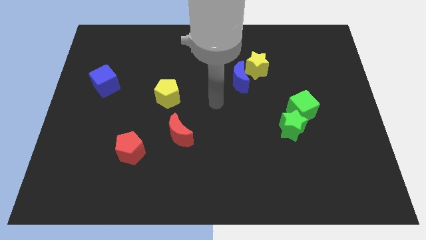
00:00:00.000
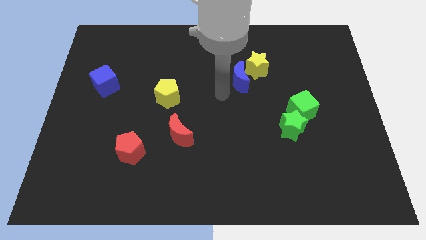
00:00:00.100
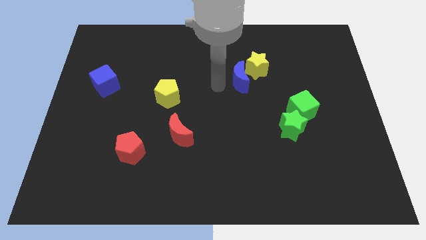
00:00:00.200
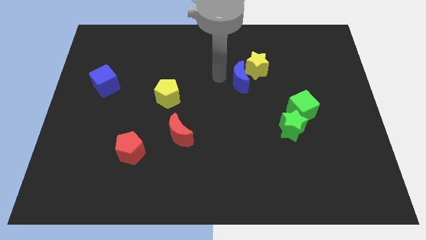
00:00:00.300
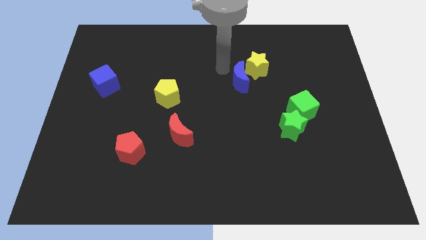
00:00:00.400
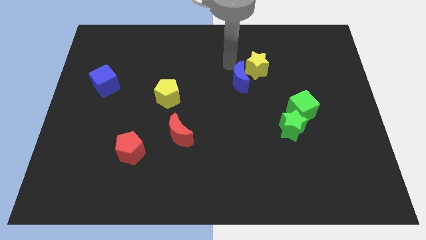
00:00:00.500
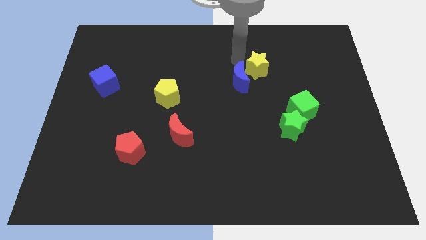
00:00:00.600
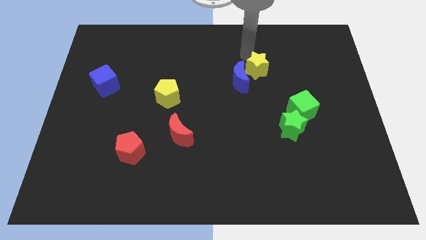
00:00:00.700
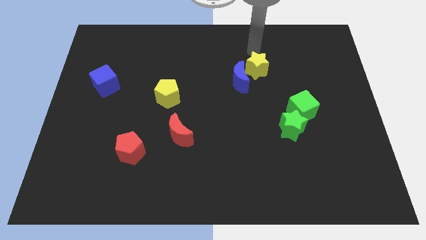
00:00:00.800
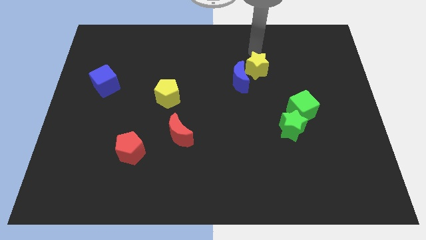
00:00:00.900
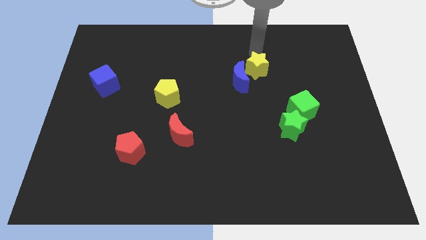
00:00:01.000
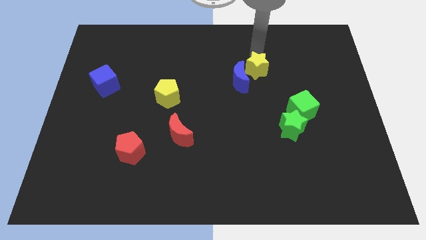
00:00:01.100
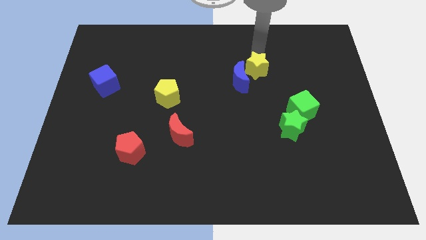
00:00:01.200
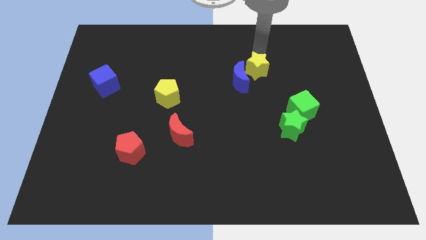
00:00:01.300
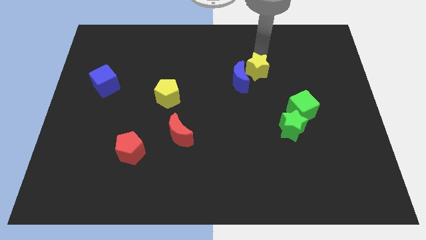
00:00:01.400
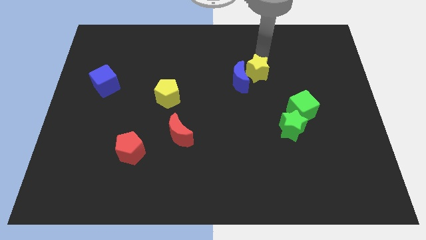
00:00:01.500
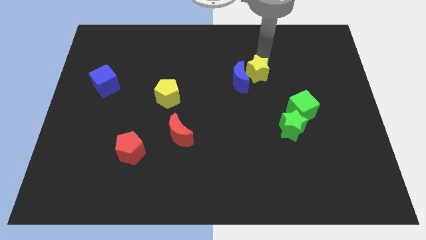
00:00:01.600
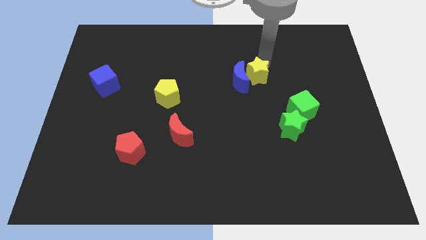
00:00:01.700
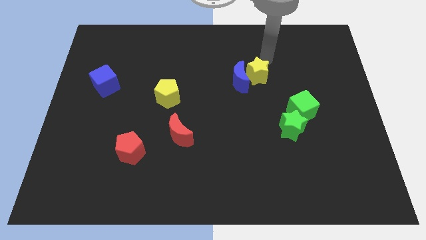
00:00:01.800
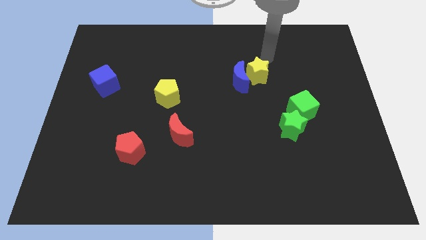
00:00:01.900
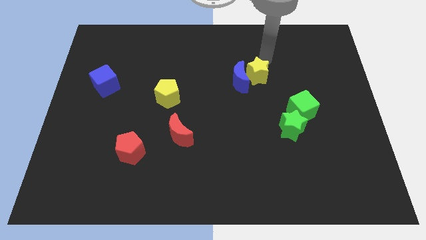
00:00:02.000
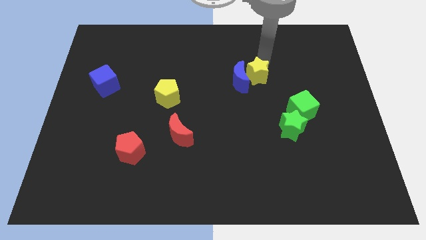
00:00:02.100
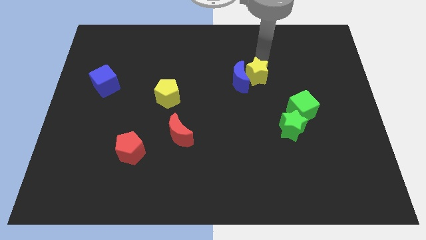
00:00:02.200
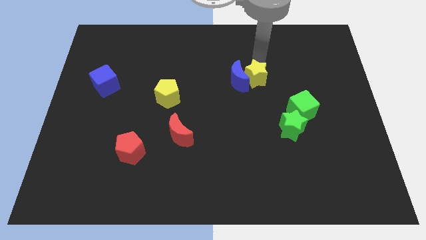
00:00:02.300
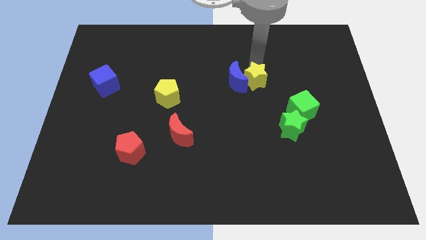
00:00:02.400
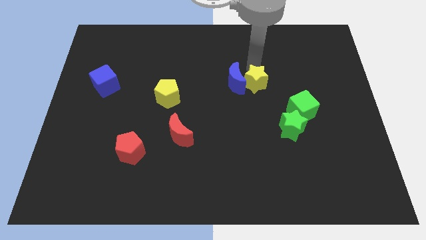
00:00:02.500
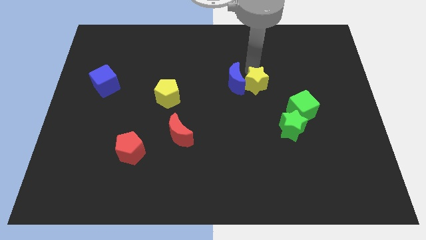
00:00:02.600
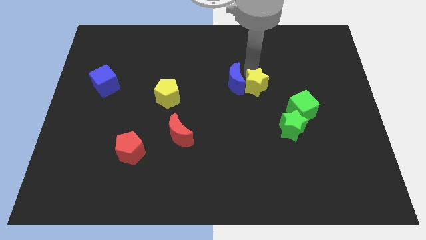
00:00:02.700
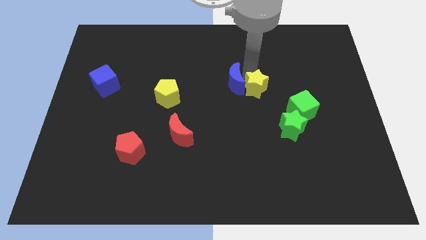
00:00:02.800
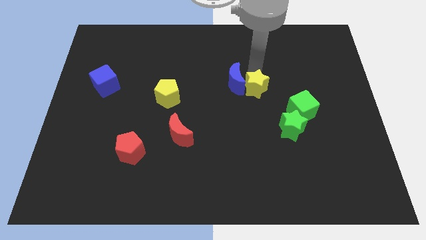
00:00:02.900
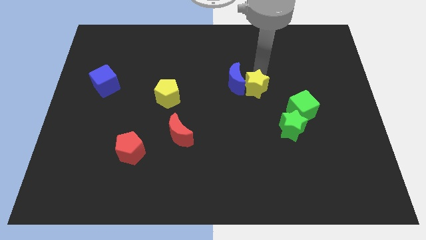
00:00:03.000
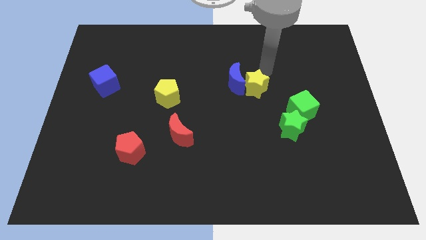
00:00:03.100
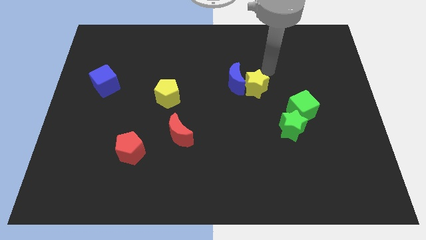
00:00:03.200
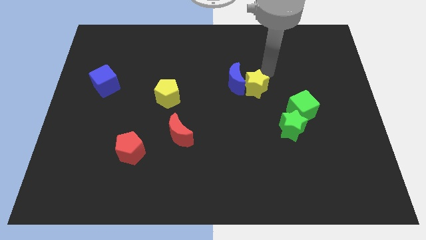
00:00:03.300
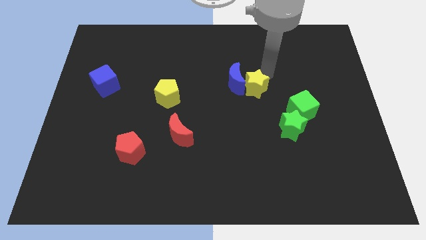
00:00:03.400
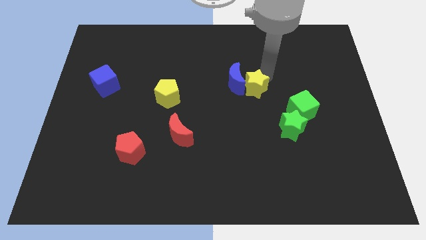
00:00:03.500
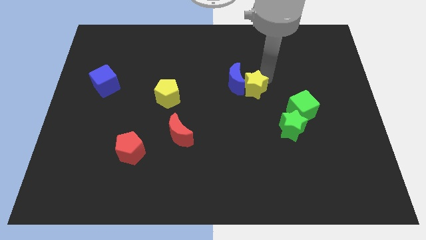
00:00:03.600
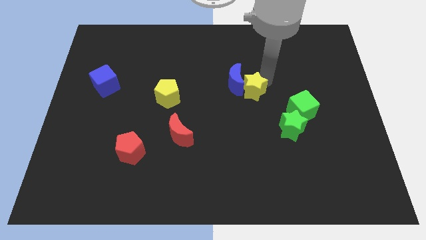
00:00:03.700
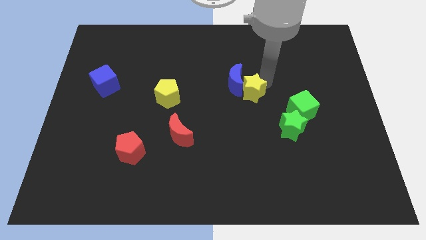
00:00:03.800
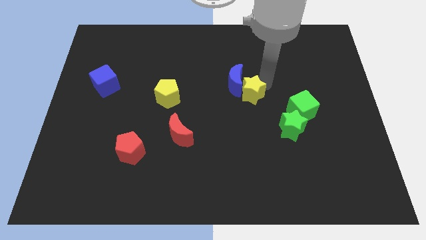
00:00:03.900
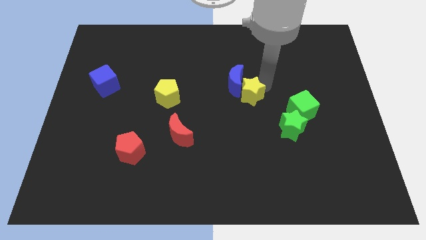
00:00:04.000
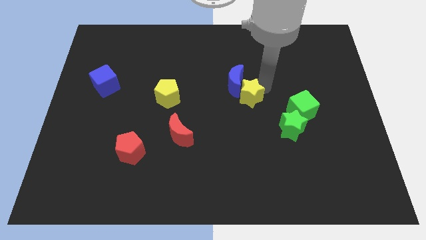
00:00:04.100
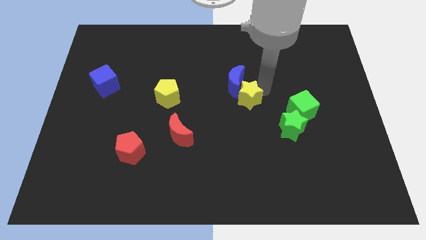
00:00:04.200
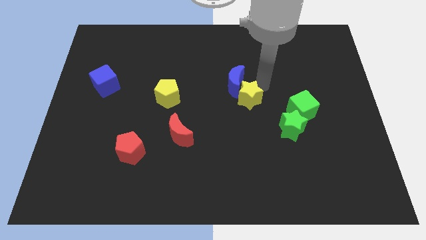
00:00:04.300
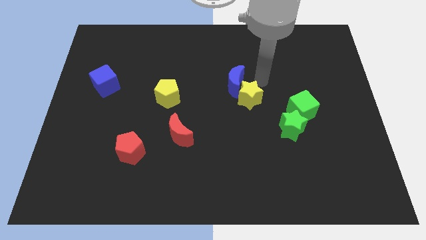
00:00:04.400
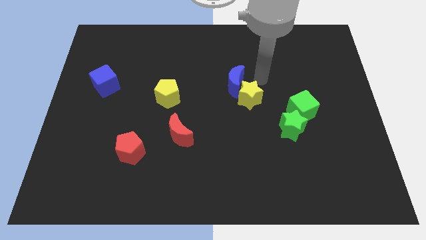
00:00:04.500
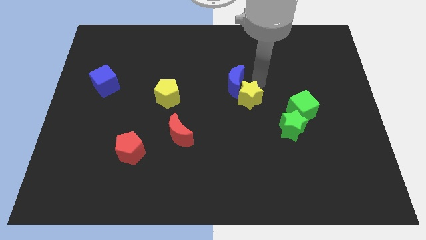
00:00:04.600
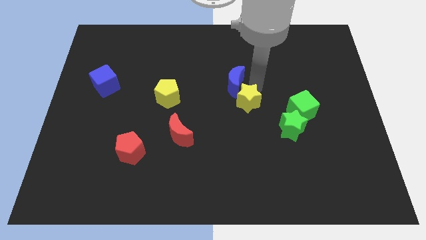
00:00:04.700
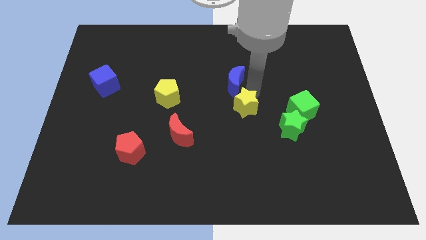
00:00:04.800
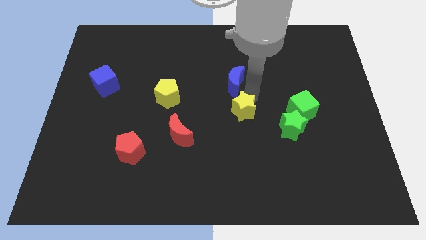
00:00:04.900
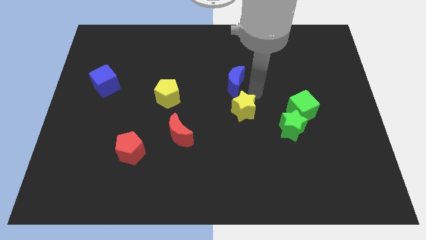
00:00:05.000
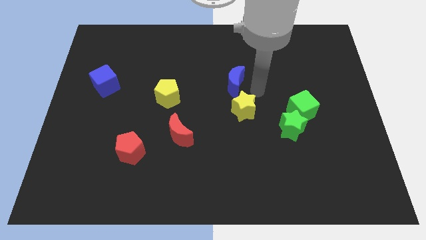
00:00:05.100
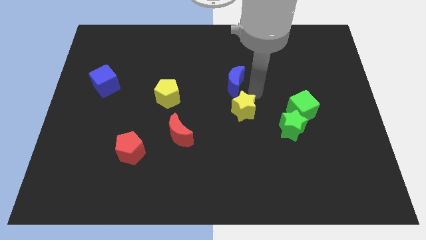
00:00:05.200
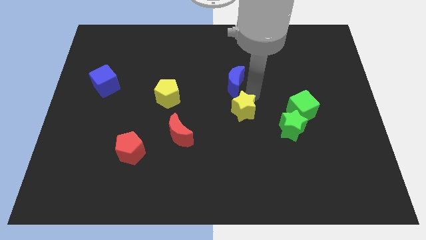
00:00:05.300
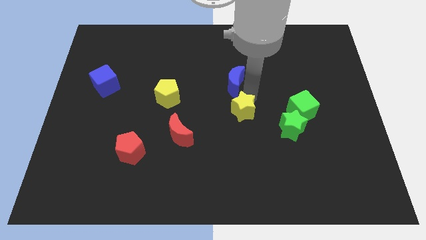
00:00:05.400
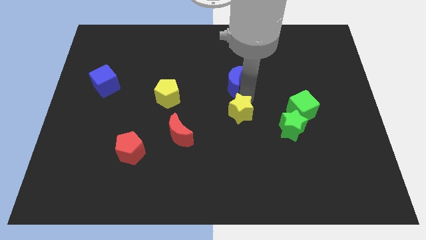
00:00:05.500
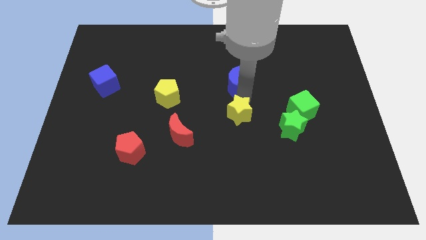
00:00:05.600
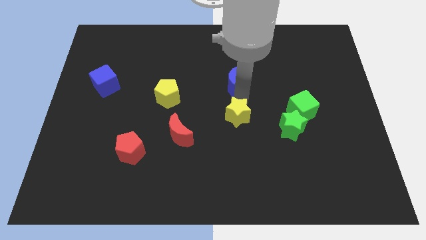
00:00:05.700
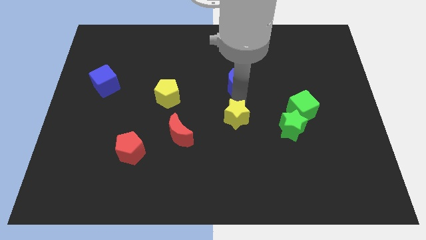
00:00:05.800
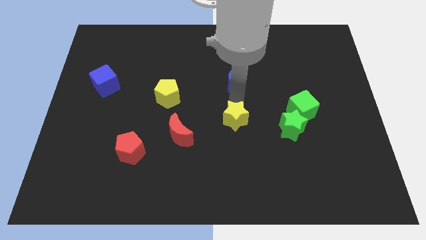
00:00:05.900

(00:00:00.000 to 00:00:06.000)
put the yellow star right of the red moon

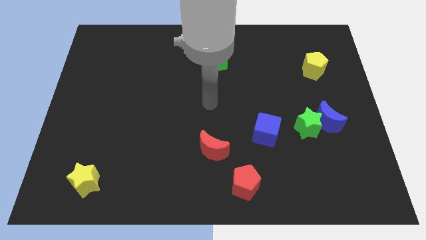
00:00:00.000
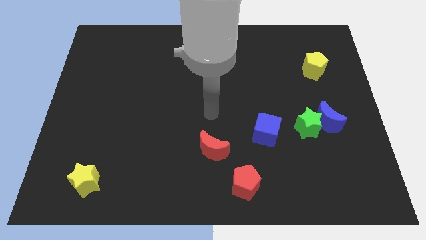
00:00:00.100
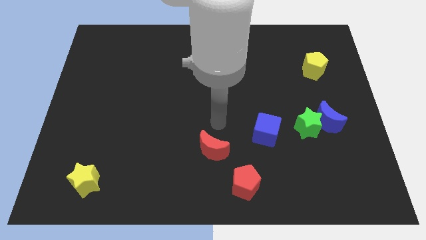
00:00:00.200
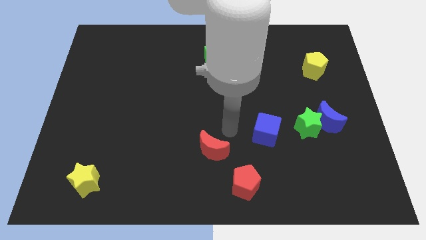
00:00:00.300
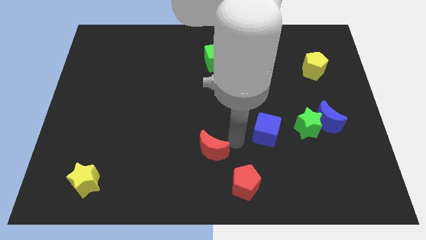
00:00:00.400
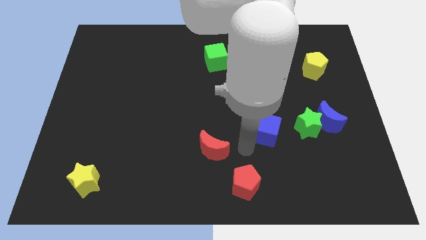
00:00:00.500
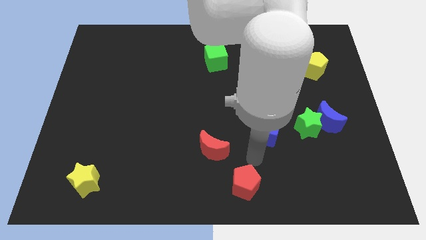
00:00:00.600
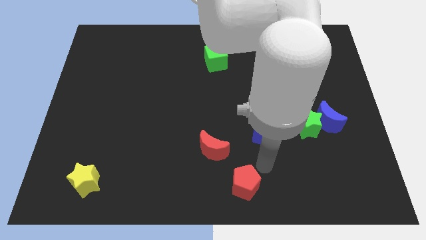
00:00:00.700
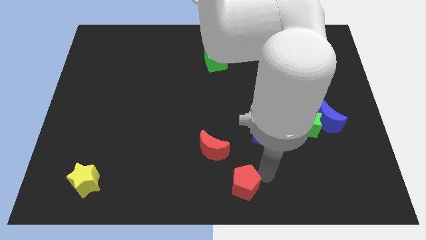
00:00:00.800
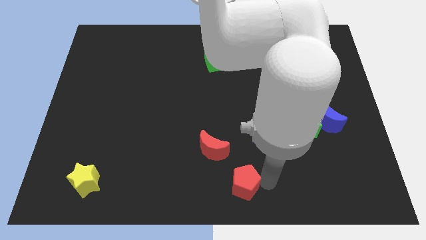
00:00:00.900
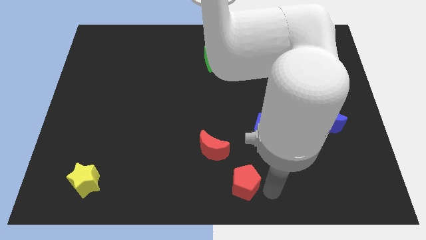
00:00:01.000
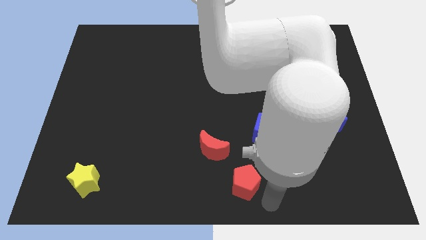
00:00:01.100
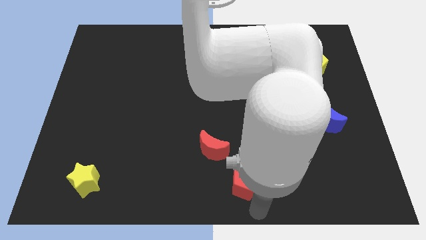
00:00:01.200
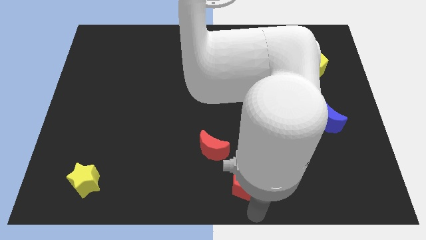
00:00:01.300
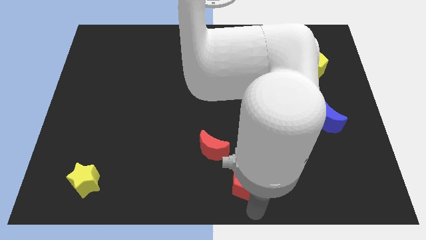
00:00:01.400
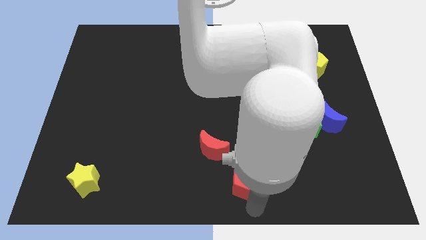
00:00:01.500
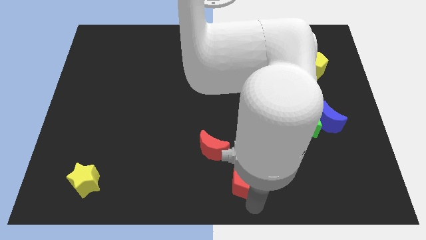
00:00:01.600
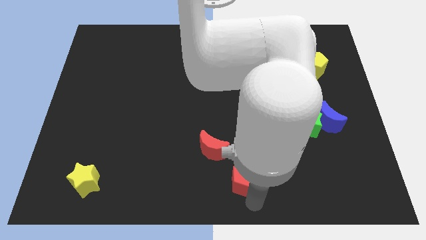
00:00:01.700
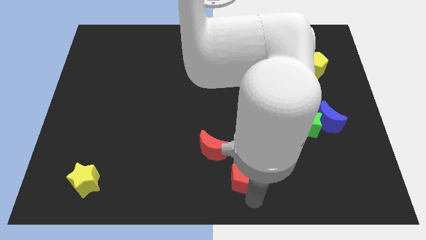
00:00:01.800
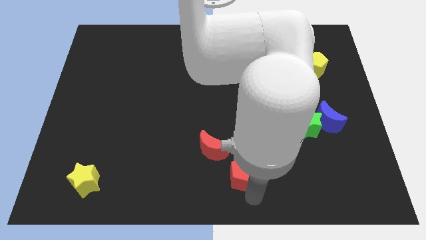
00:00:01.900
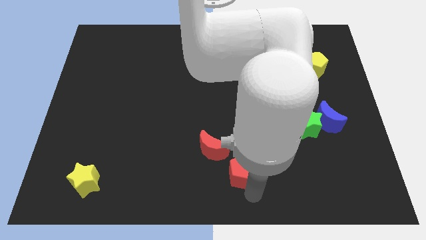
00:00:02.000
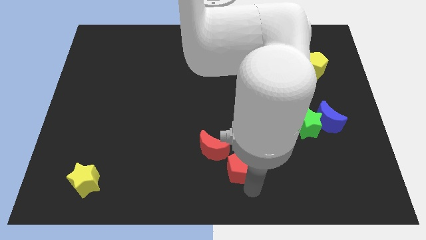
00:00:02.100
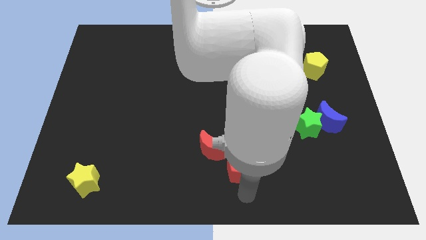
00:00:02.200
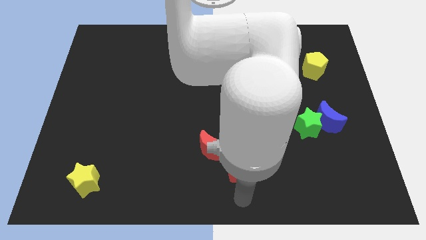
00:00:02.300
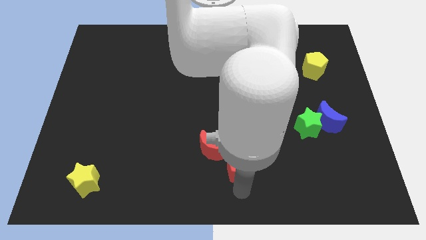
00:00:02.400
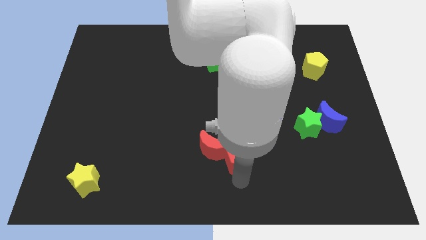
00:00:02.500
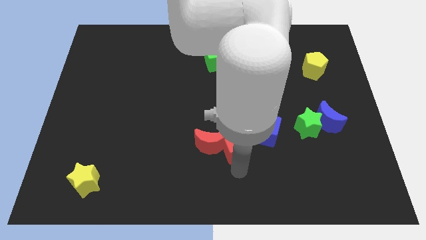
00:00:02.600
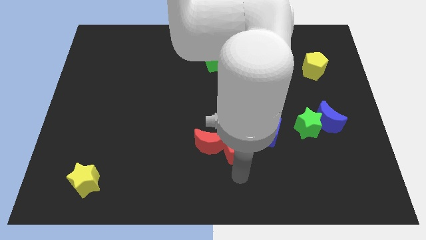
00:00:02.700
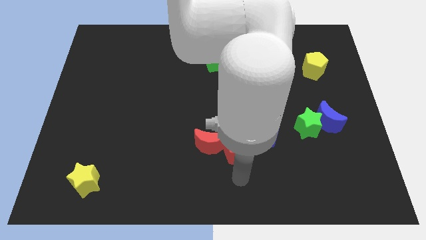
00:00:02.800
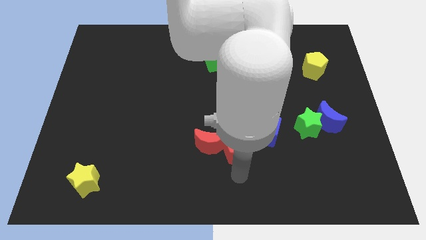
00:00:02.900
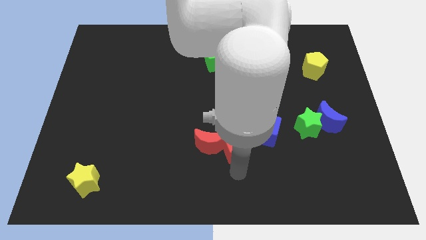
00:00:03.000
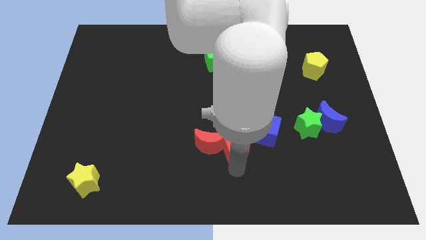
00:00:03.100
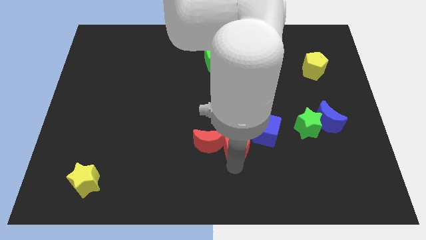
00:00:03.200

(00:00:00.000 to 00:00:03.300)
move the red pentagon diagonally up and to the right of the red moon
